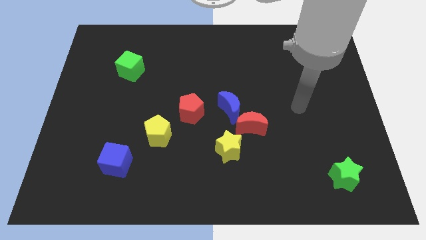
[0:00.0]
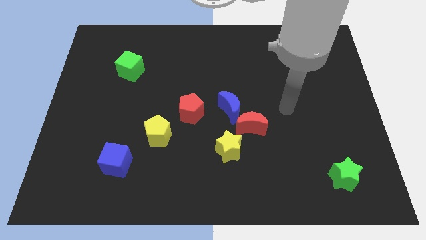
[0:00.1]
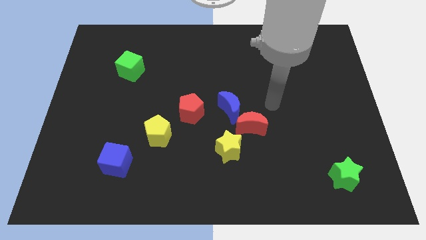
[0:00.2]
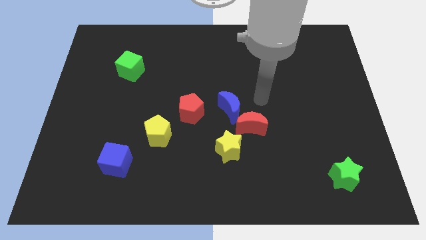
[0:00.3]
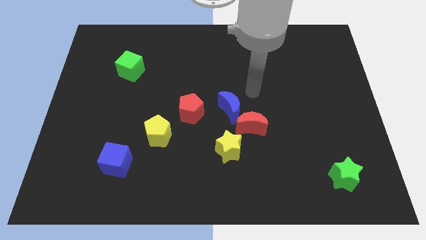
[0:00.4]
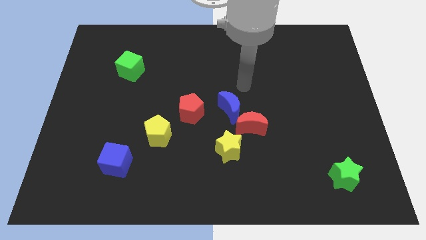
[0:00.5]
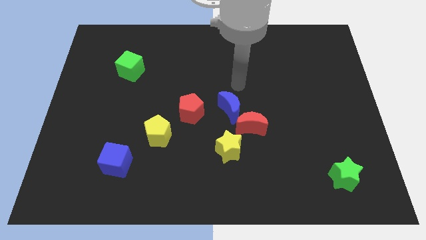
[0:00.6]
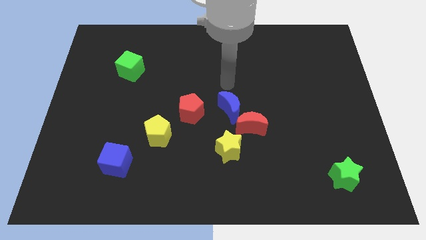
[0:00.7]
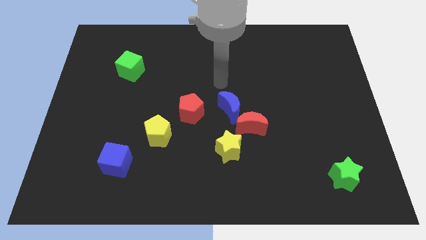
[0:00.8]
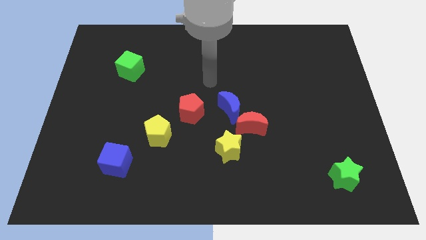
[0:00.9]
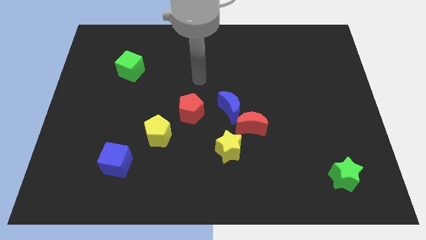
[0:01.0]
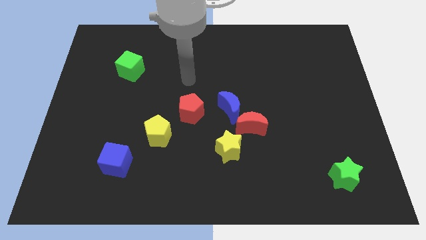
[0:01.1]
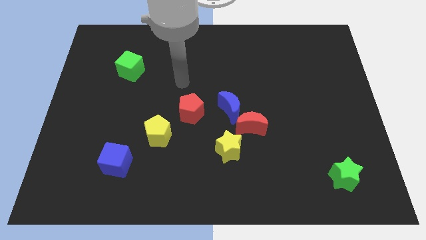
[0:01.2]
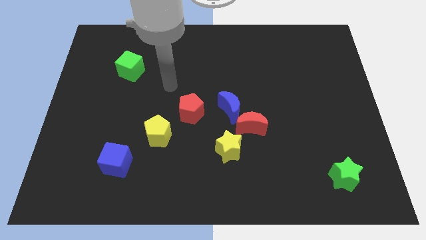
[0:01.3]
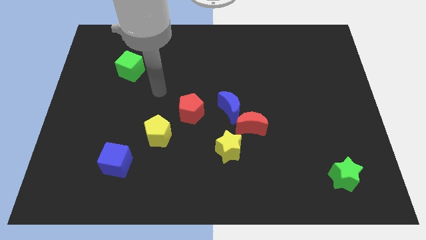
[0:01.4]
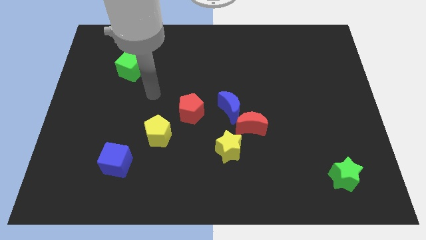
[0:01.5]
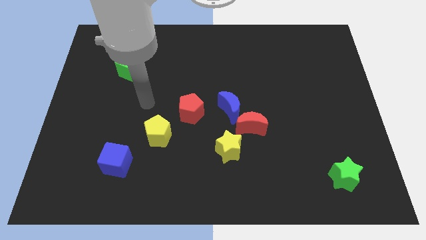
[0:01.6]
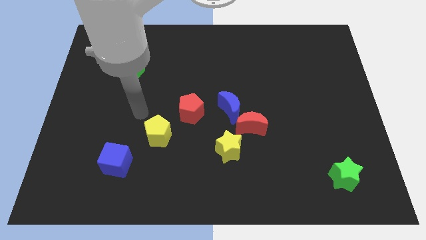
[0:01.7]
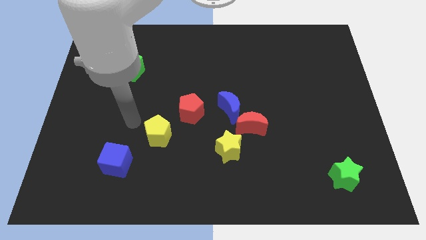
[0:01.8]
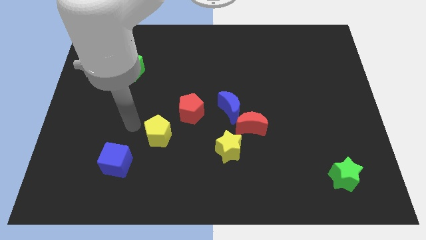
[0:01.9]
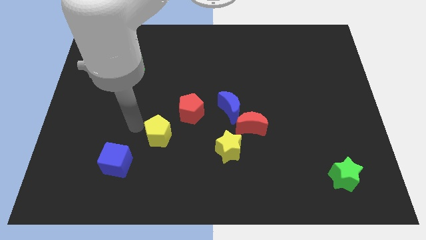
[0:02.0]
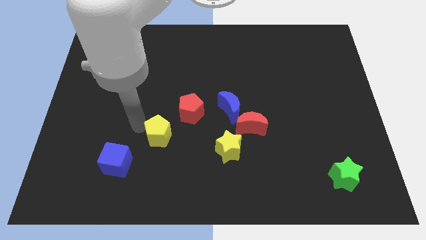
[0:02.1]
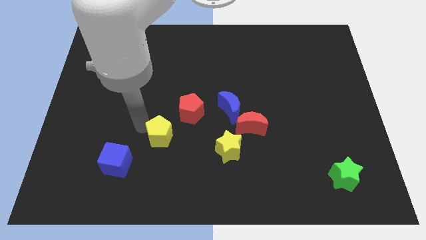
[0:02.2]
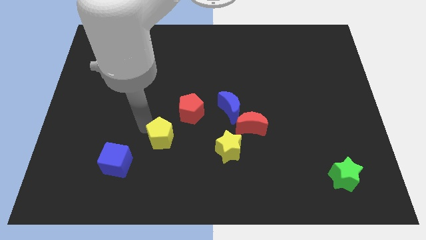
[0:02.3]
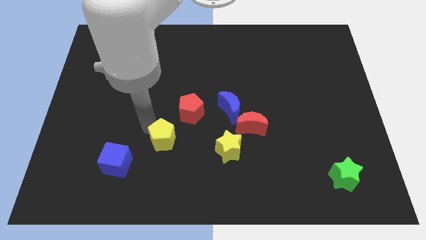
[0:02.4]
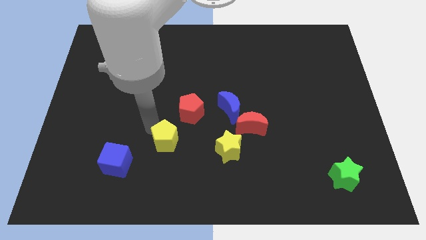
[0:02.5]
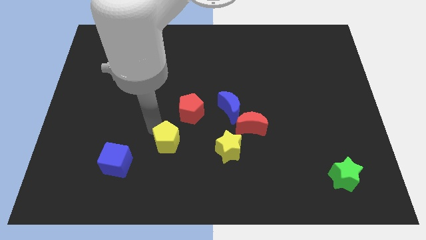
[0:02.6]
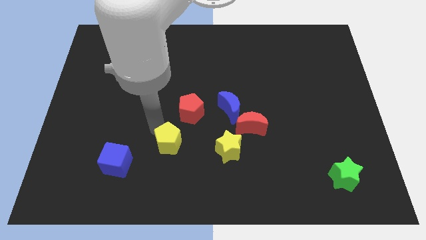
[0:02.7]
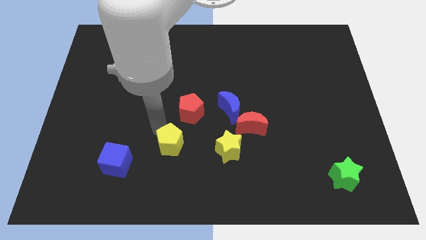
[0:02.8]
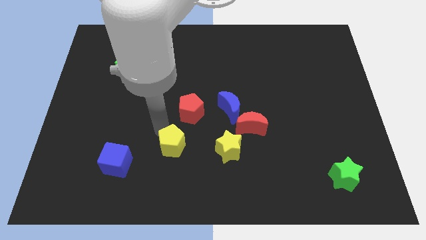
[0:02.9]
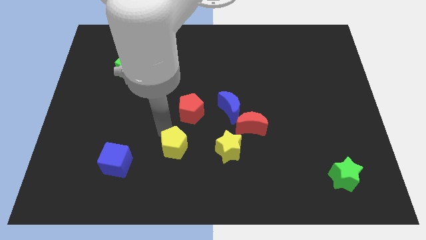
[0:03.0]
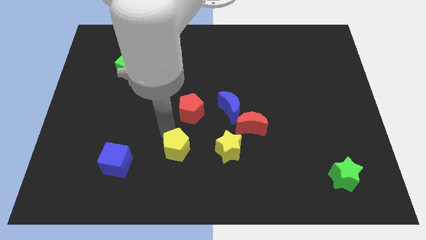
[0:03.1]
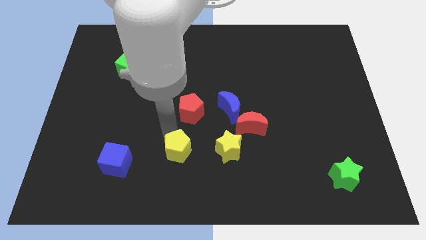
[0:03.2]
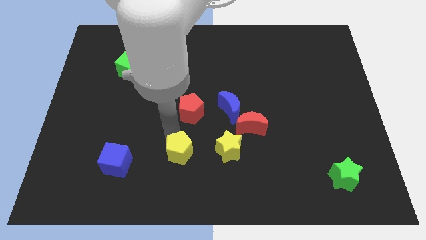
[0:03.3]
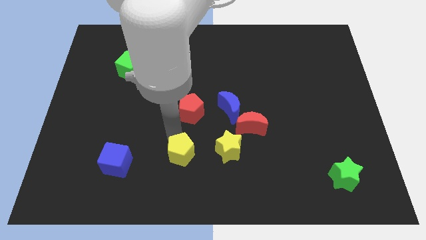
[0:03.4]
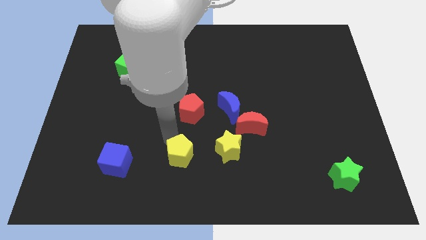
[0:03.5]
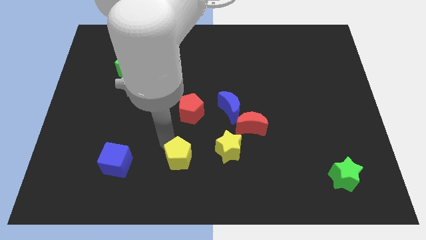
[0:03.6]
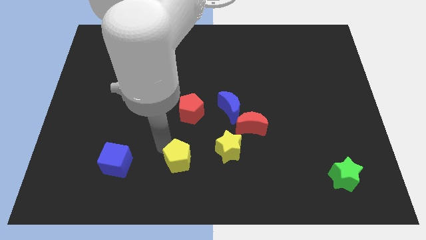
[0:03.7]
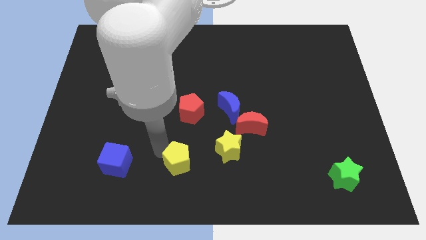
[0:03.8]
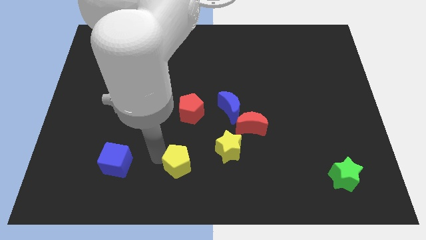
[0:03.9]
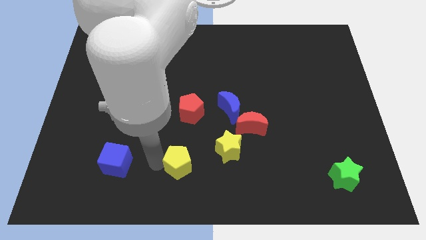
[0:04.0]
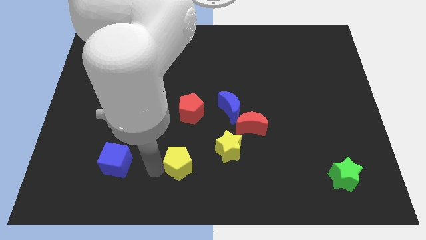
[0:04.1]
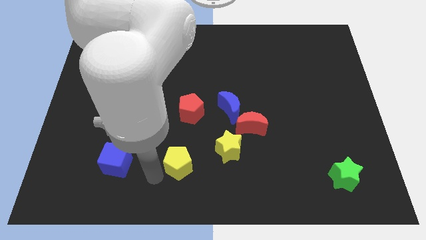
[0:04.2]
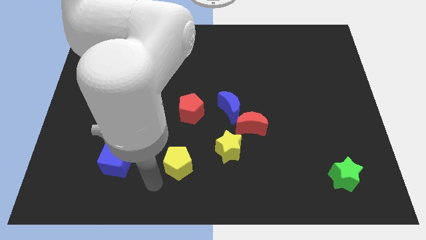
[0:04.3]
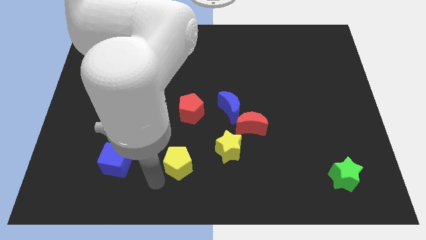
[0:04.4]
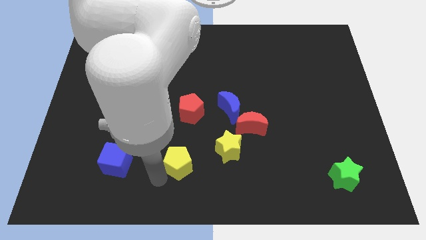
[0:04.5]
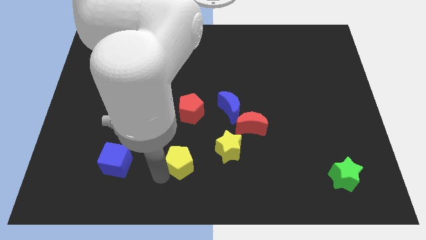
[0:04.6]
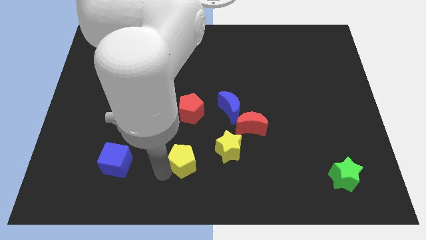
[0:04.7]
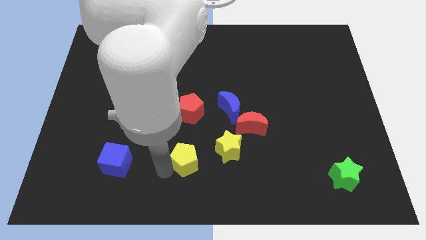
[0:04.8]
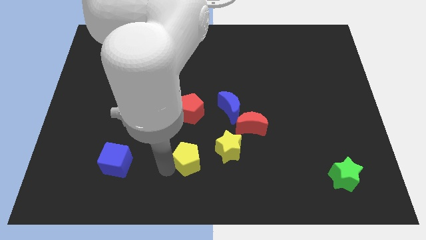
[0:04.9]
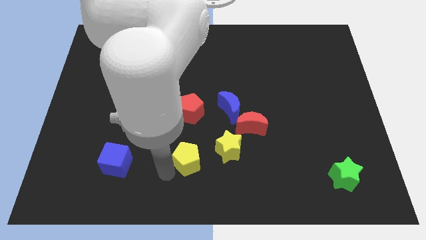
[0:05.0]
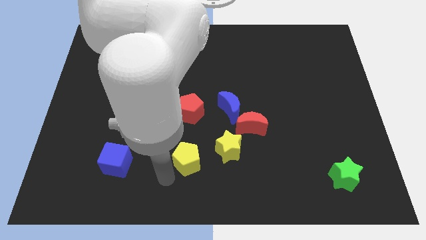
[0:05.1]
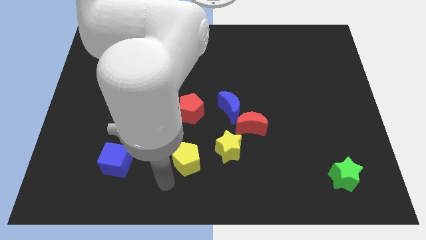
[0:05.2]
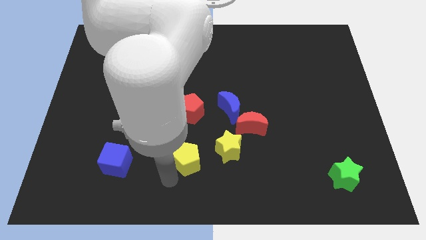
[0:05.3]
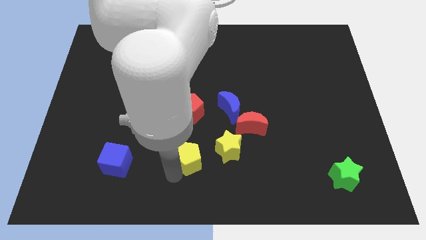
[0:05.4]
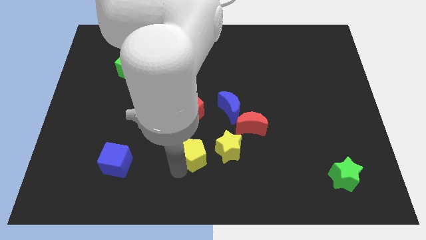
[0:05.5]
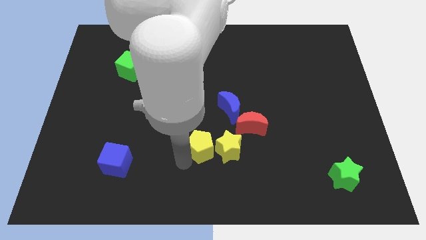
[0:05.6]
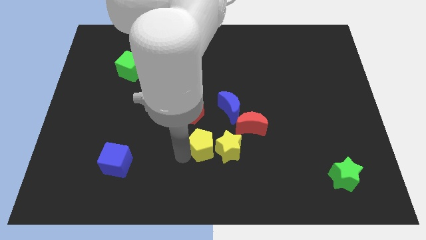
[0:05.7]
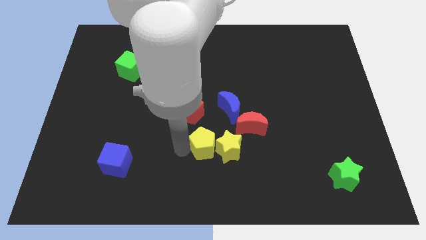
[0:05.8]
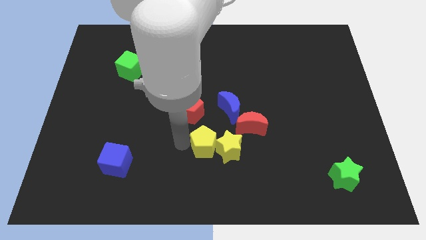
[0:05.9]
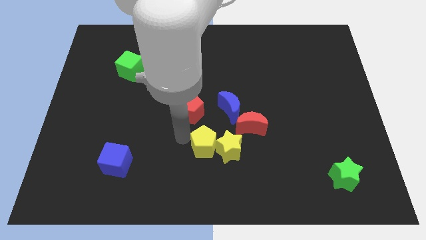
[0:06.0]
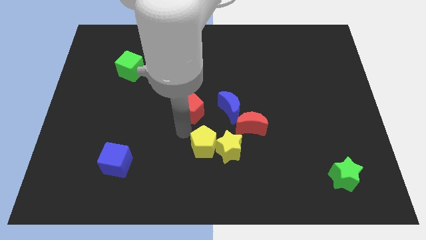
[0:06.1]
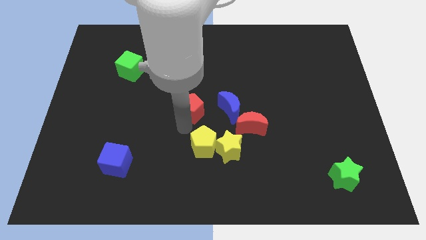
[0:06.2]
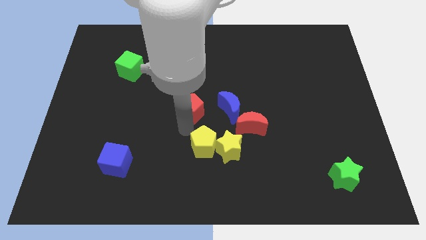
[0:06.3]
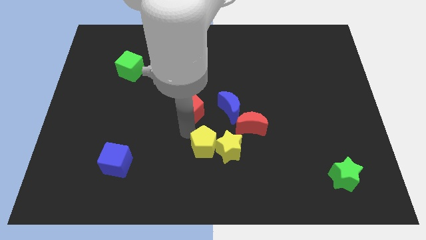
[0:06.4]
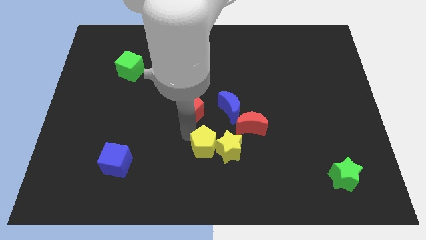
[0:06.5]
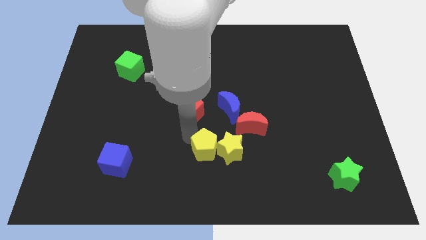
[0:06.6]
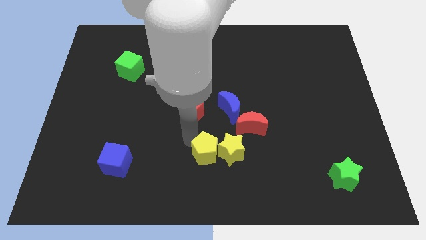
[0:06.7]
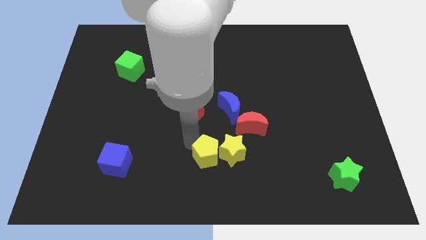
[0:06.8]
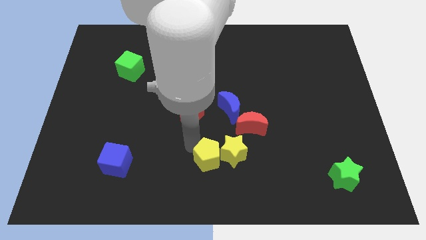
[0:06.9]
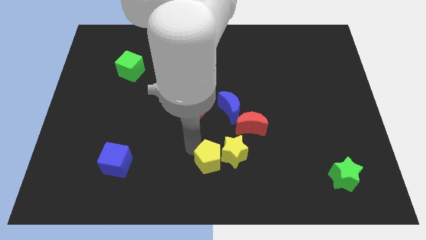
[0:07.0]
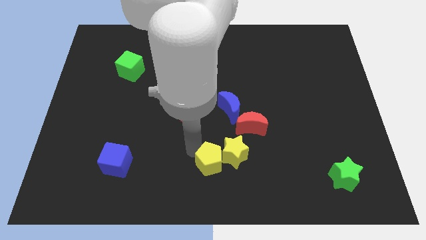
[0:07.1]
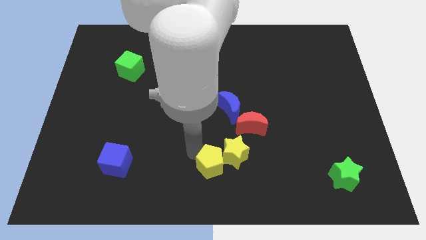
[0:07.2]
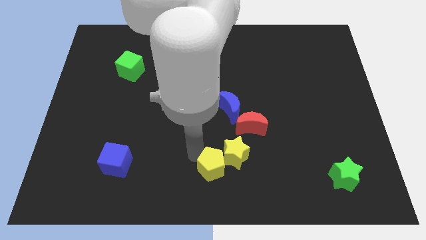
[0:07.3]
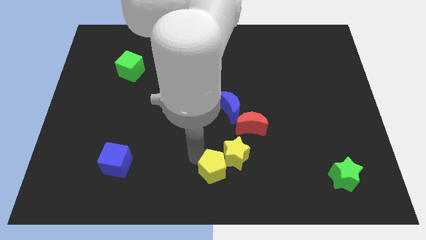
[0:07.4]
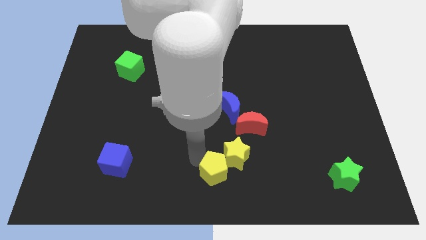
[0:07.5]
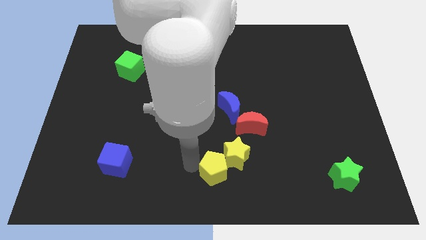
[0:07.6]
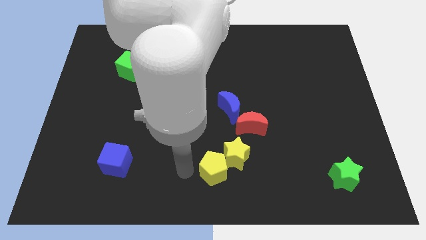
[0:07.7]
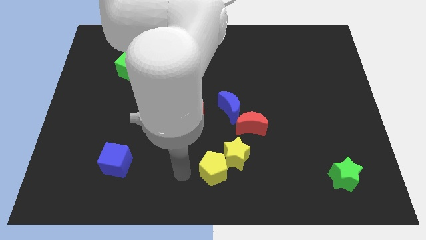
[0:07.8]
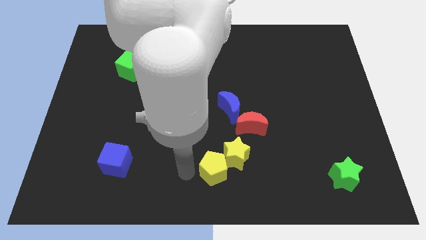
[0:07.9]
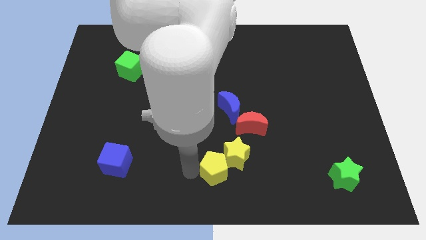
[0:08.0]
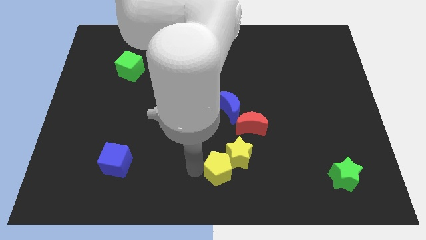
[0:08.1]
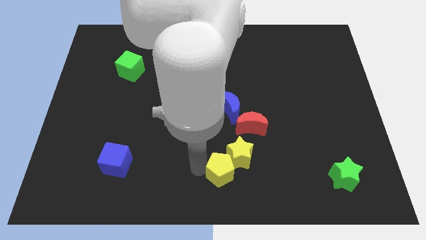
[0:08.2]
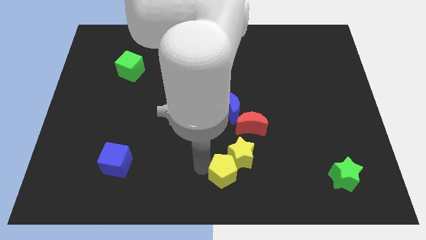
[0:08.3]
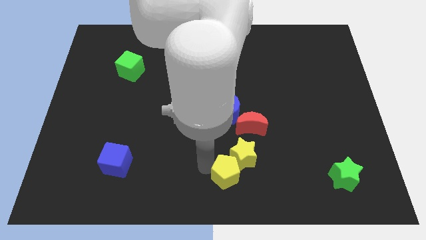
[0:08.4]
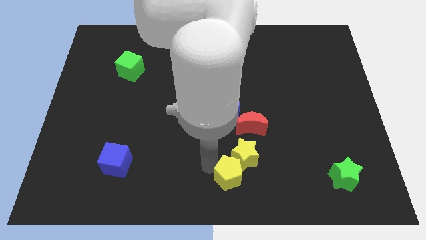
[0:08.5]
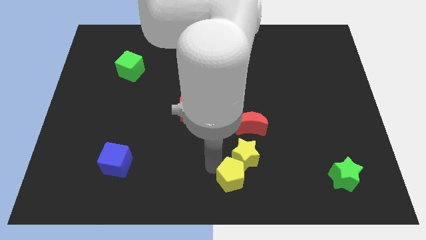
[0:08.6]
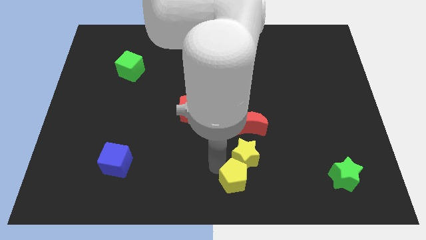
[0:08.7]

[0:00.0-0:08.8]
push the yellow pentagon to the bottom side of the red moon
